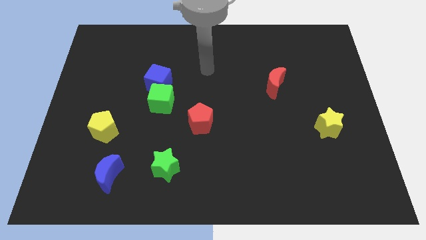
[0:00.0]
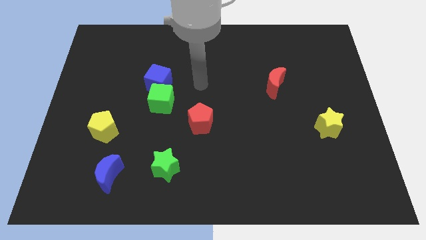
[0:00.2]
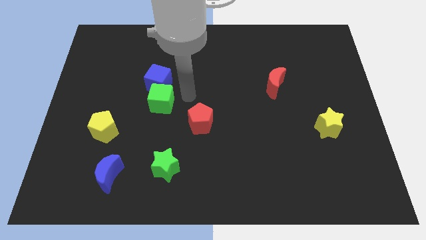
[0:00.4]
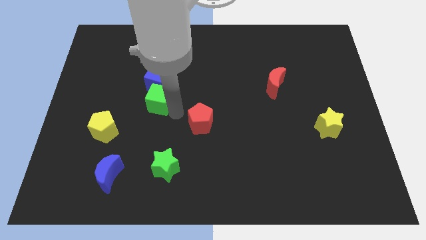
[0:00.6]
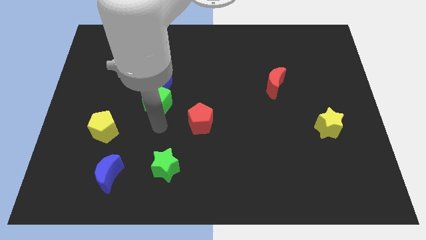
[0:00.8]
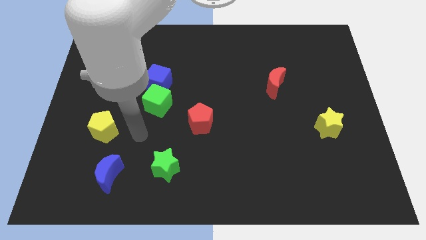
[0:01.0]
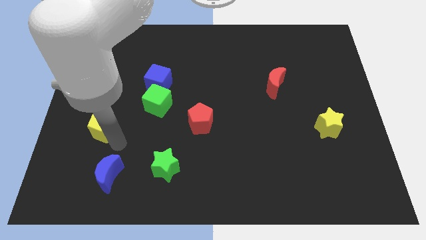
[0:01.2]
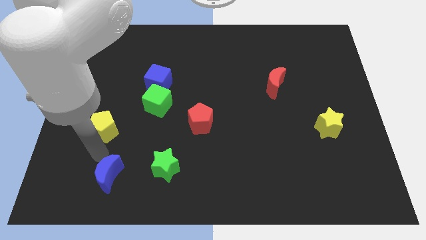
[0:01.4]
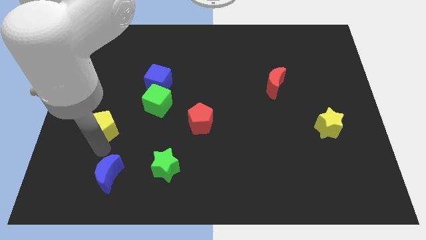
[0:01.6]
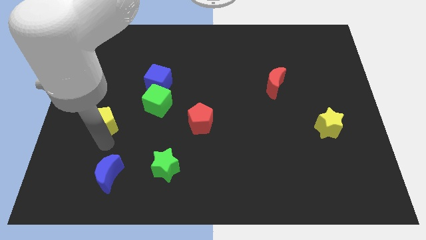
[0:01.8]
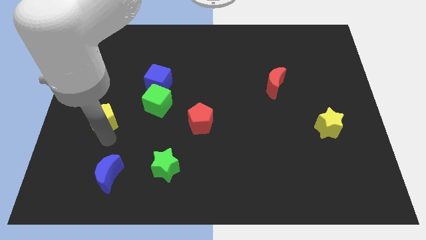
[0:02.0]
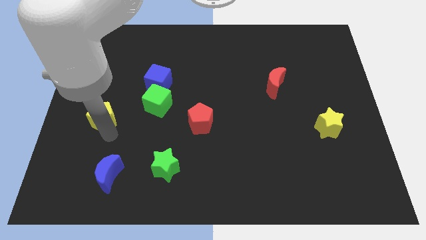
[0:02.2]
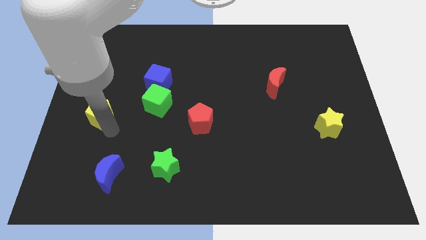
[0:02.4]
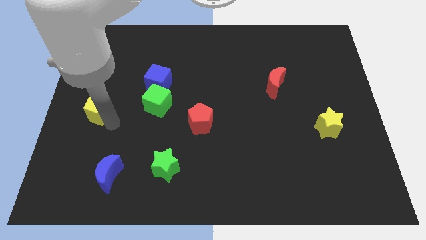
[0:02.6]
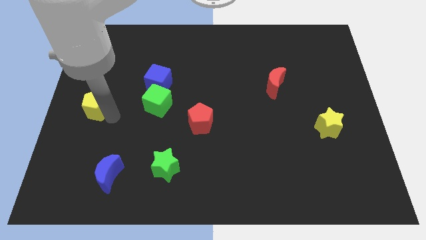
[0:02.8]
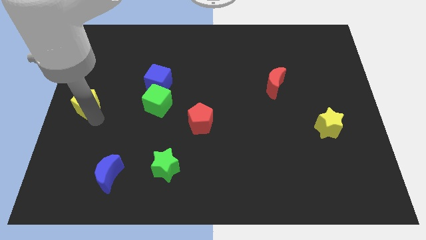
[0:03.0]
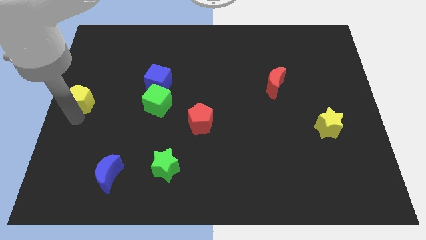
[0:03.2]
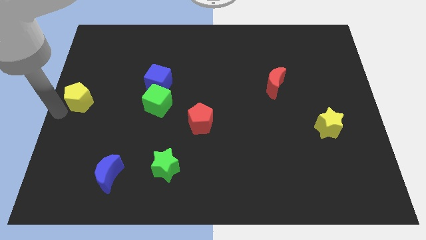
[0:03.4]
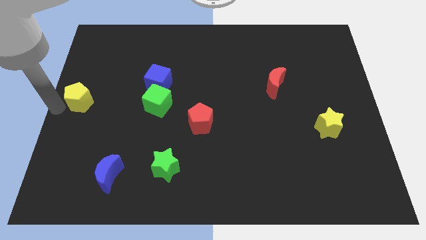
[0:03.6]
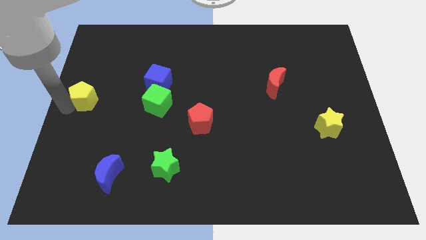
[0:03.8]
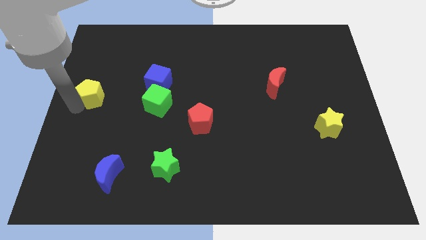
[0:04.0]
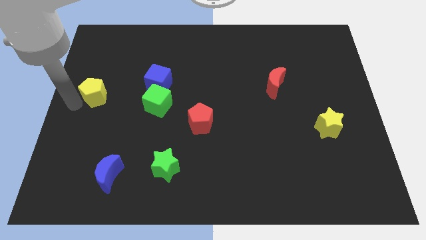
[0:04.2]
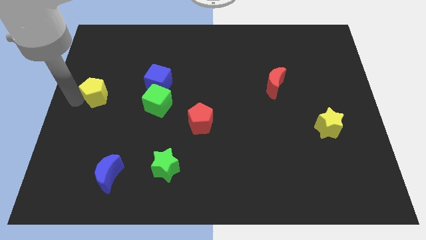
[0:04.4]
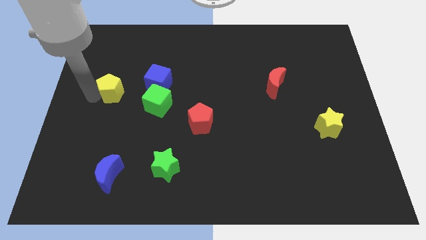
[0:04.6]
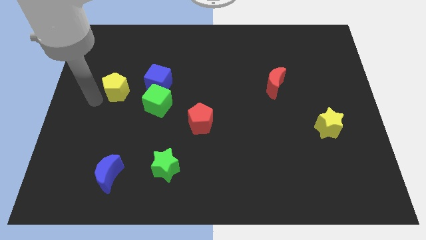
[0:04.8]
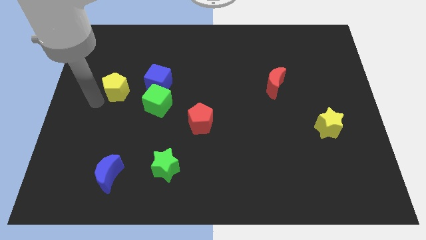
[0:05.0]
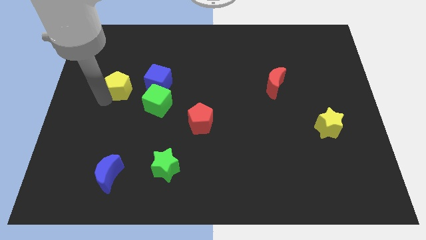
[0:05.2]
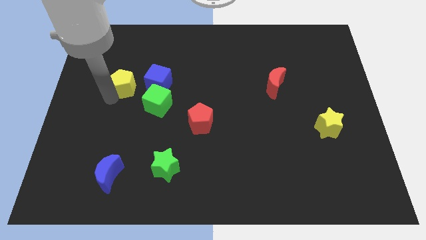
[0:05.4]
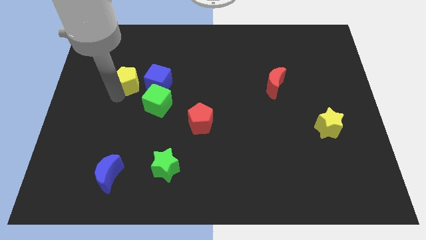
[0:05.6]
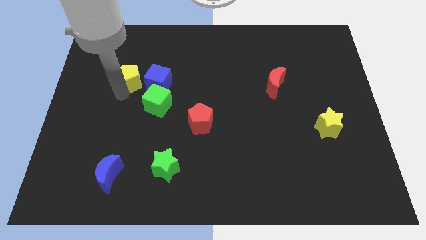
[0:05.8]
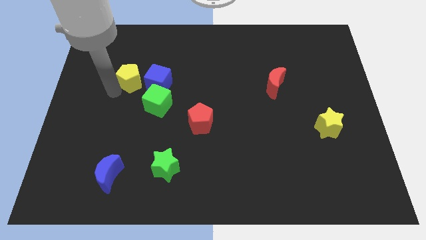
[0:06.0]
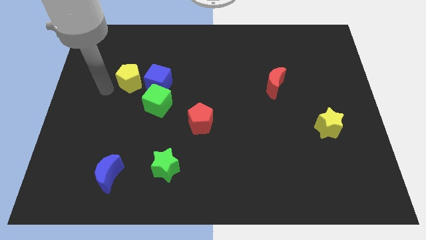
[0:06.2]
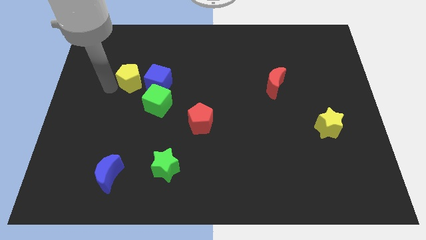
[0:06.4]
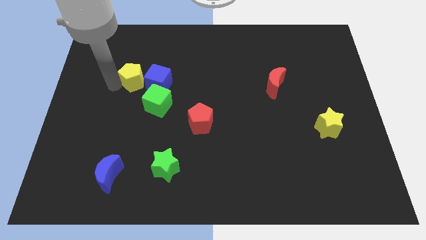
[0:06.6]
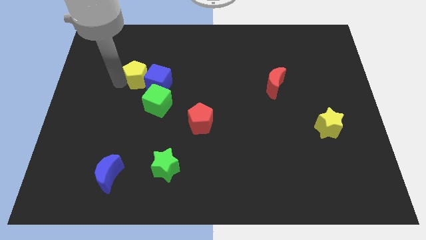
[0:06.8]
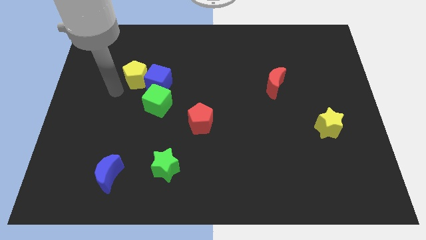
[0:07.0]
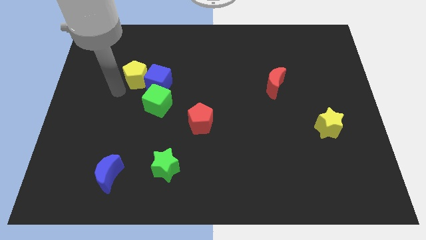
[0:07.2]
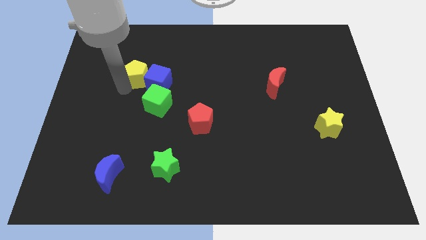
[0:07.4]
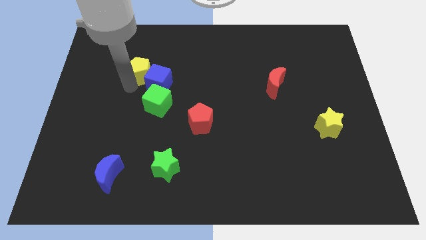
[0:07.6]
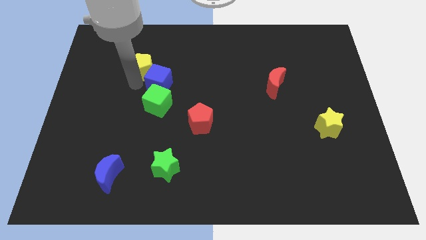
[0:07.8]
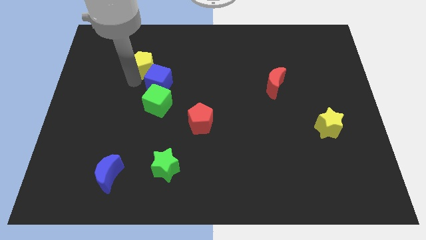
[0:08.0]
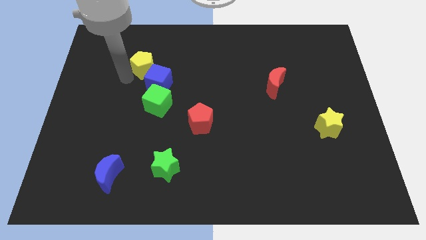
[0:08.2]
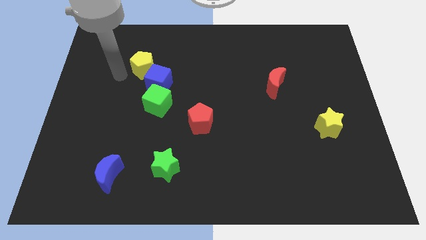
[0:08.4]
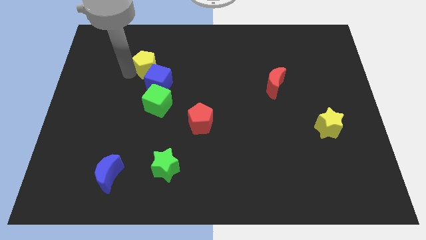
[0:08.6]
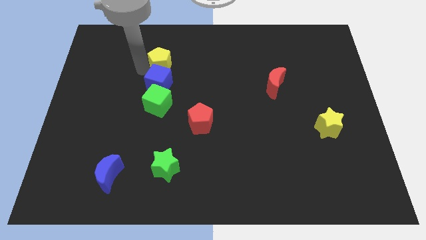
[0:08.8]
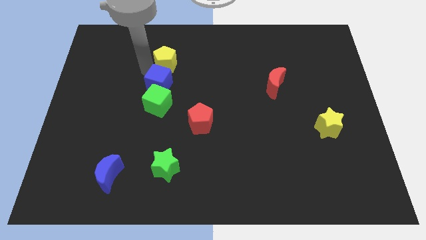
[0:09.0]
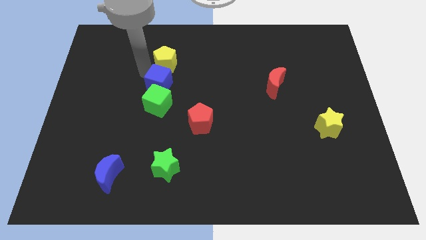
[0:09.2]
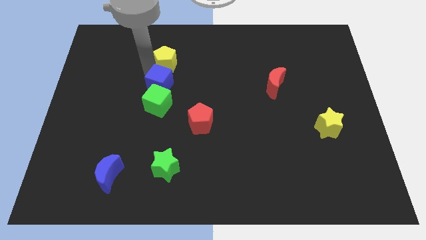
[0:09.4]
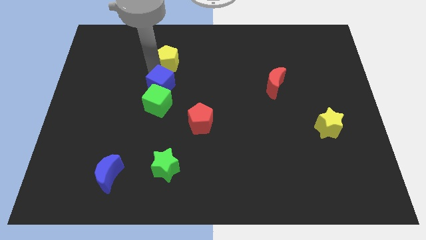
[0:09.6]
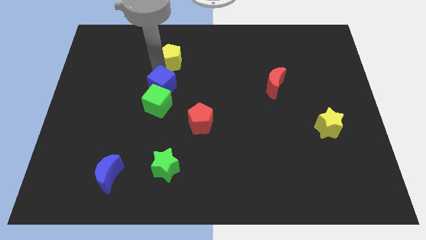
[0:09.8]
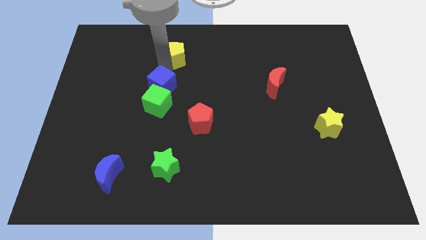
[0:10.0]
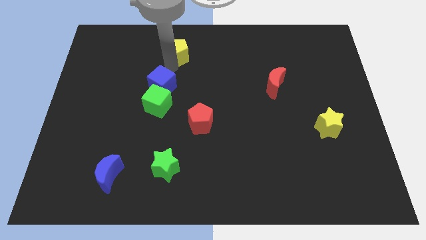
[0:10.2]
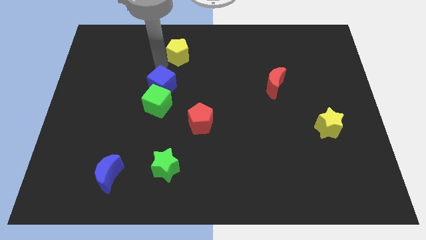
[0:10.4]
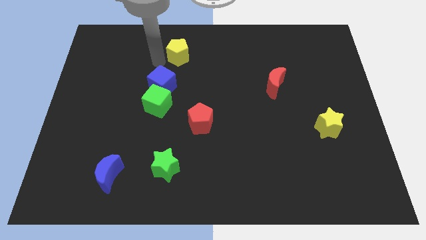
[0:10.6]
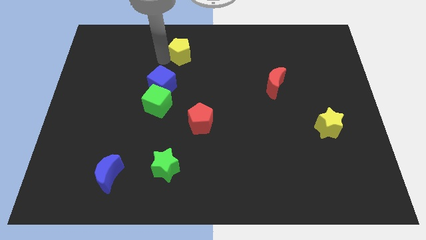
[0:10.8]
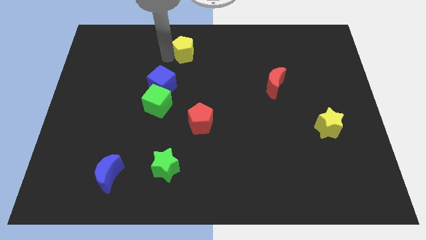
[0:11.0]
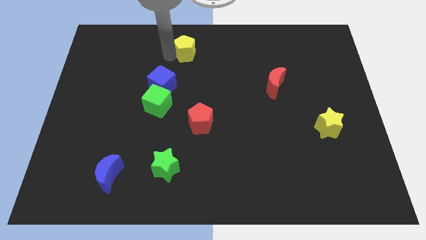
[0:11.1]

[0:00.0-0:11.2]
put the yellow pentagon to the top
